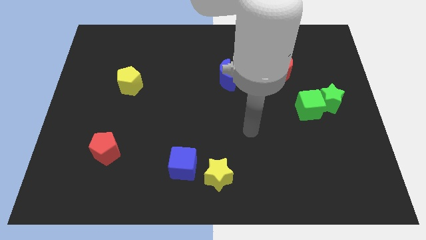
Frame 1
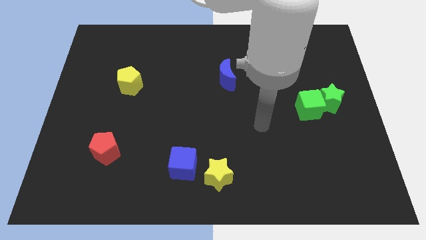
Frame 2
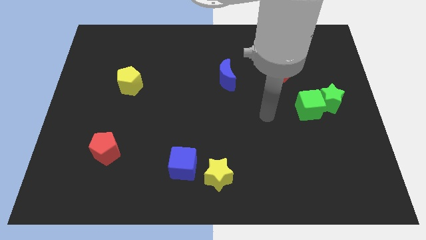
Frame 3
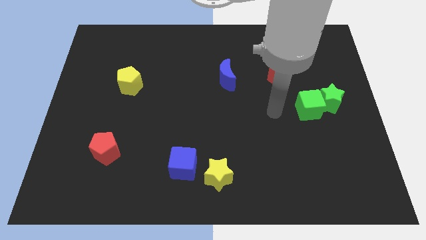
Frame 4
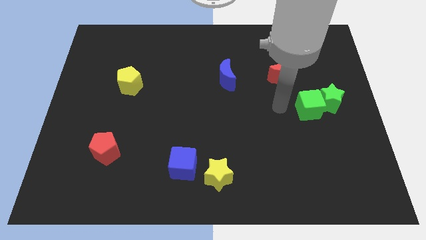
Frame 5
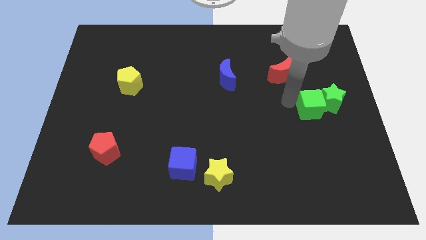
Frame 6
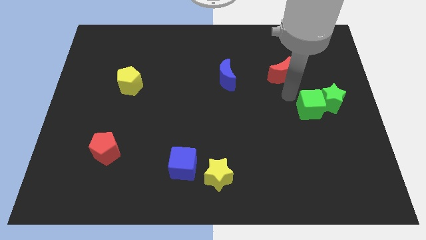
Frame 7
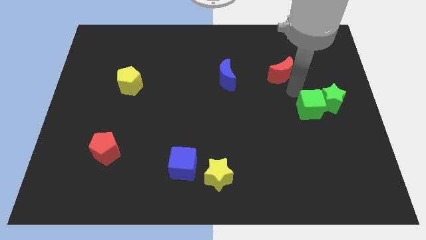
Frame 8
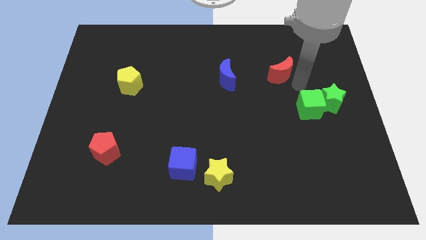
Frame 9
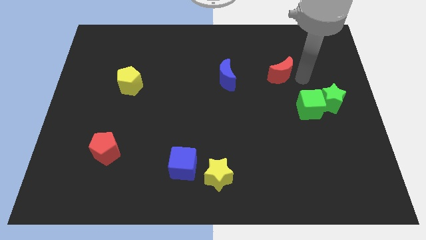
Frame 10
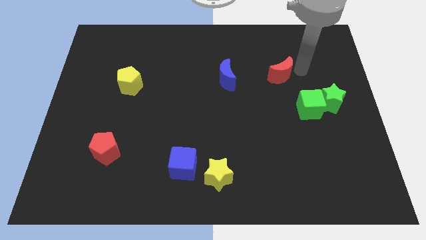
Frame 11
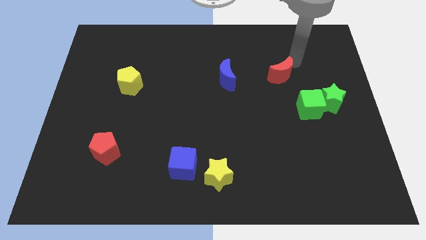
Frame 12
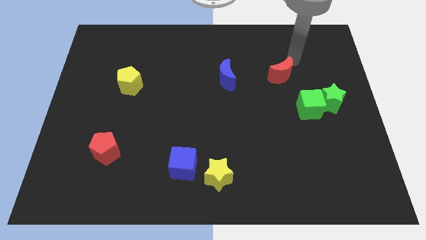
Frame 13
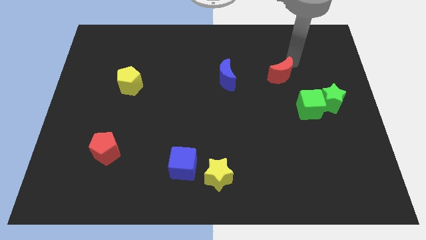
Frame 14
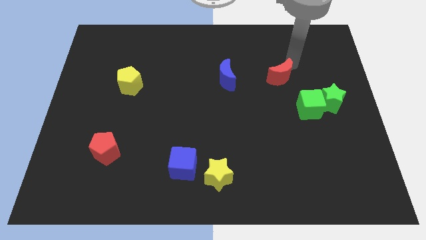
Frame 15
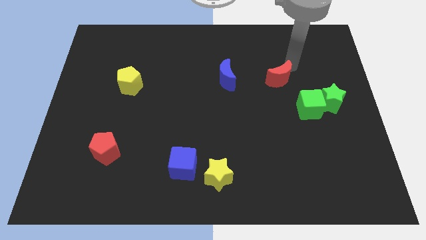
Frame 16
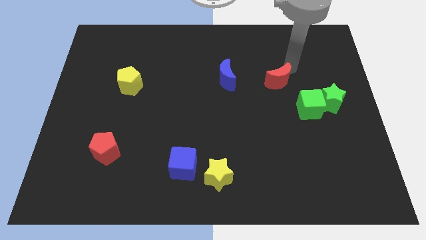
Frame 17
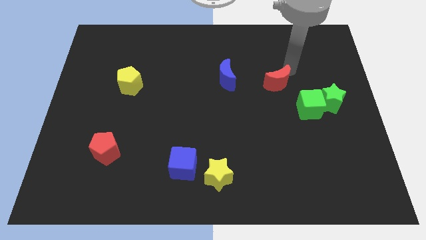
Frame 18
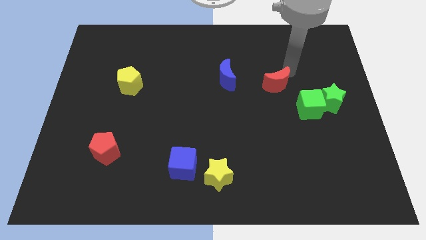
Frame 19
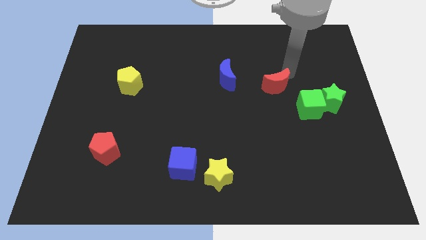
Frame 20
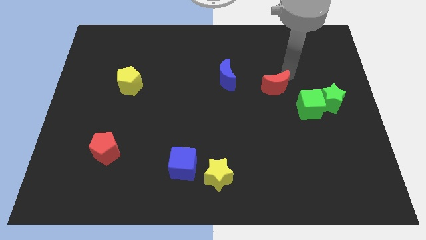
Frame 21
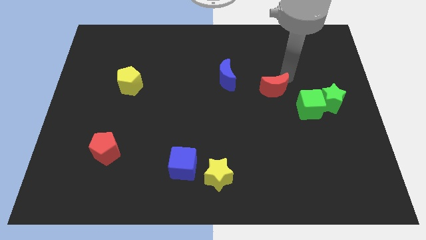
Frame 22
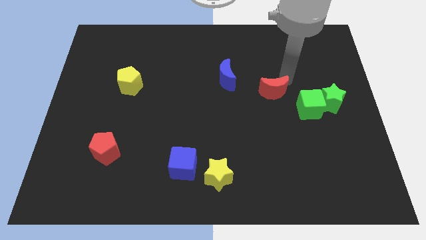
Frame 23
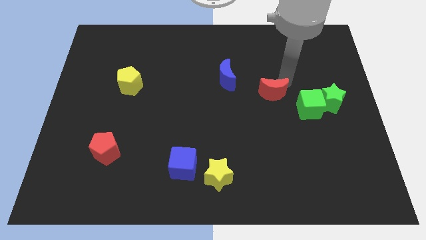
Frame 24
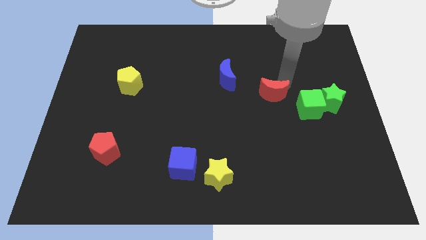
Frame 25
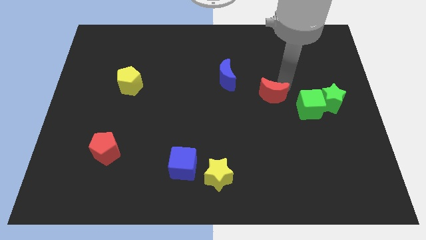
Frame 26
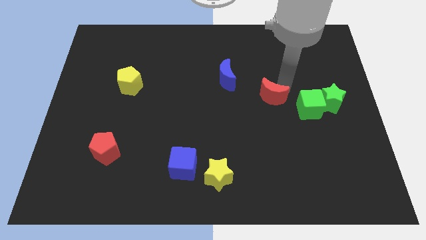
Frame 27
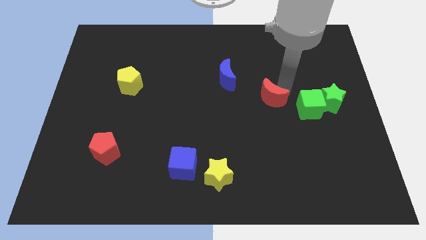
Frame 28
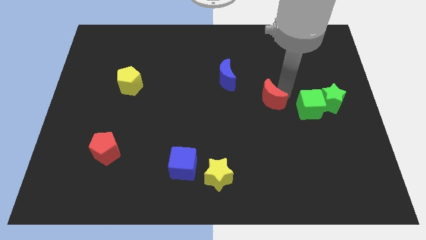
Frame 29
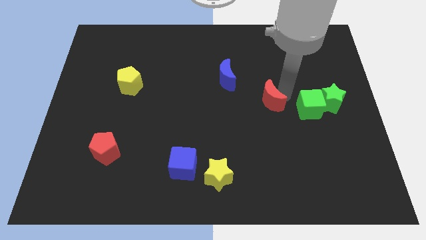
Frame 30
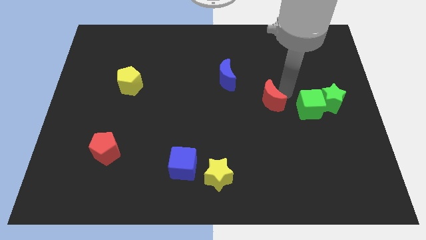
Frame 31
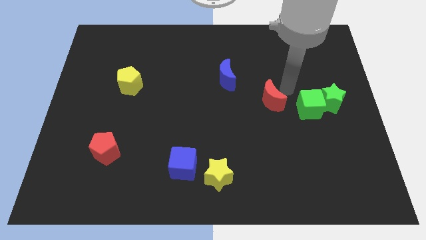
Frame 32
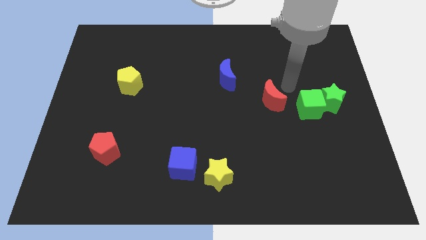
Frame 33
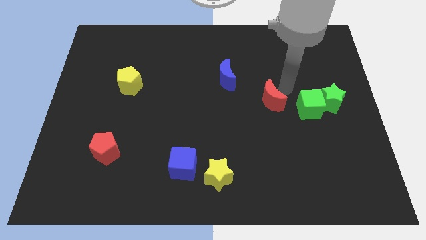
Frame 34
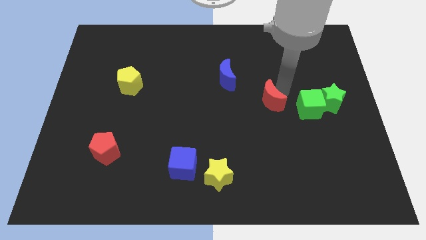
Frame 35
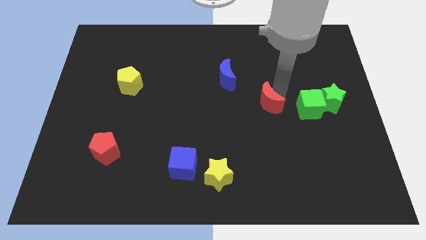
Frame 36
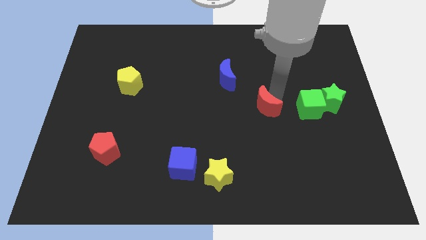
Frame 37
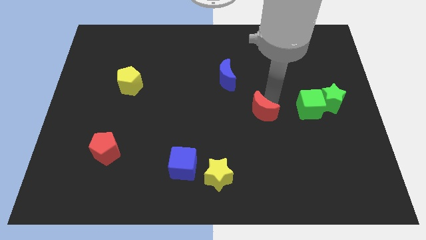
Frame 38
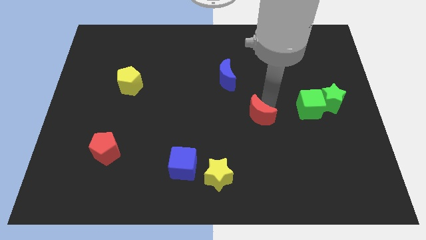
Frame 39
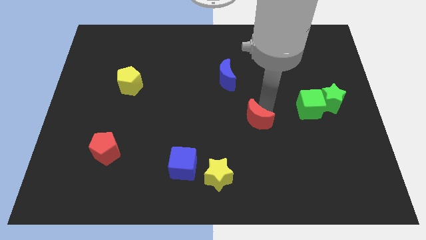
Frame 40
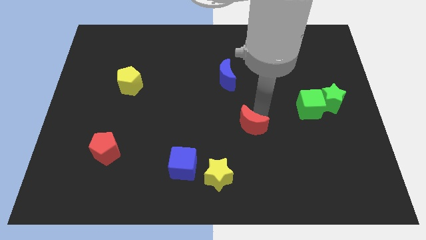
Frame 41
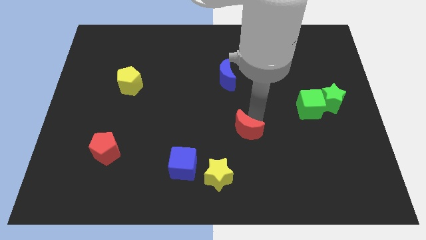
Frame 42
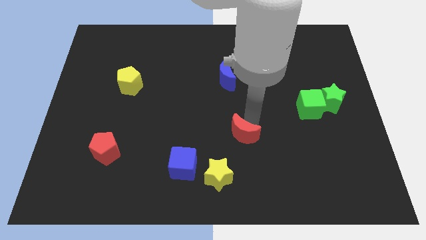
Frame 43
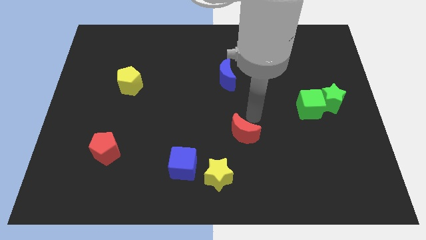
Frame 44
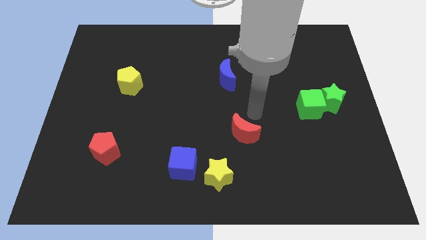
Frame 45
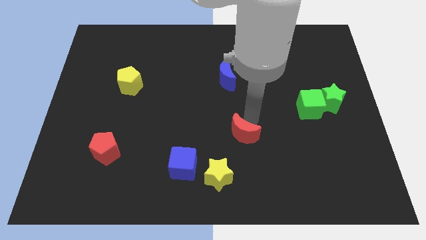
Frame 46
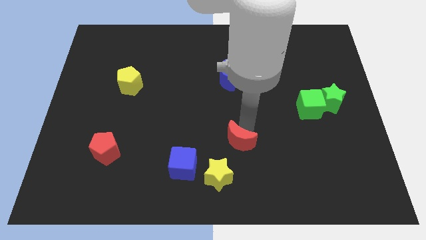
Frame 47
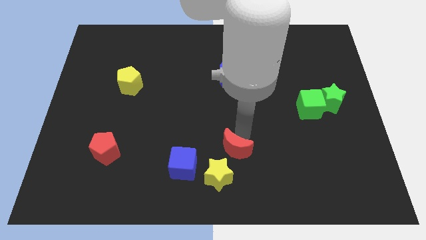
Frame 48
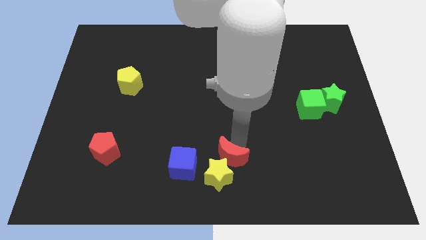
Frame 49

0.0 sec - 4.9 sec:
move the red moon next to the yellow star

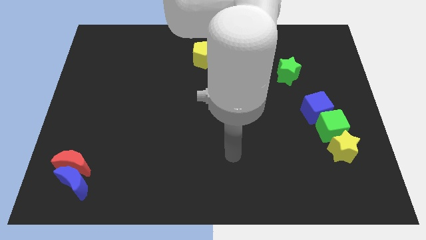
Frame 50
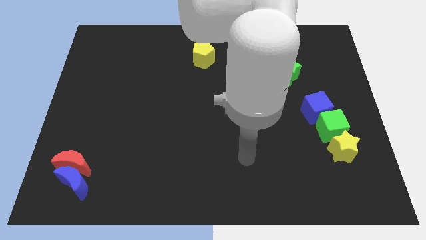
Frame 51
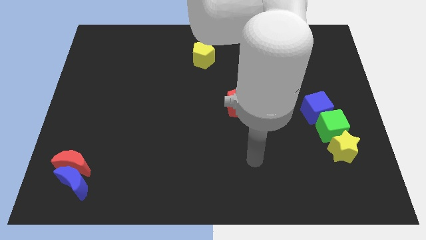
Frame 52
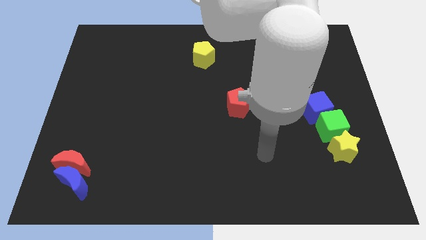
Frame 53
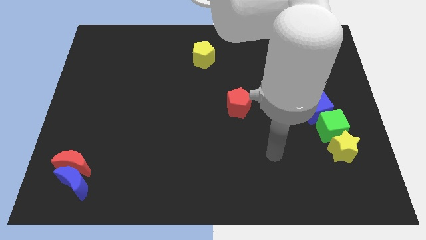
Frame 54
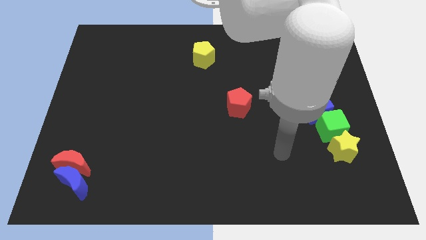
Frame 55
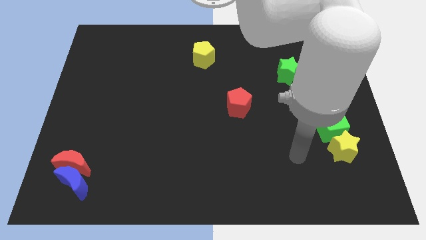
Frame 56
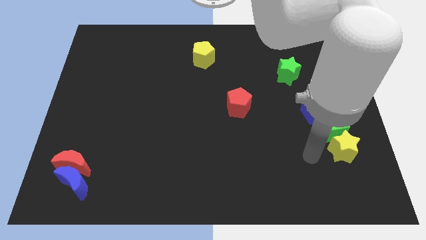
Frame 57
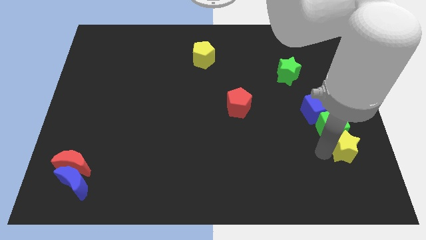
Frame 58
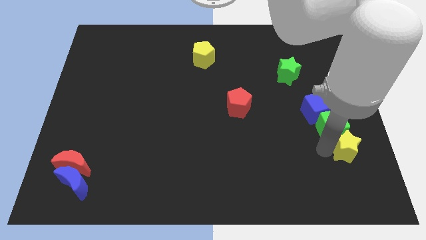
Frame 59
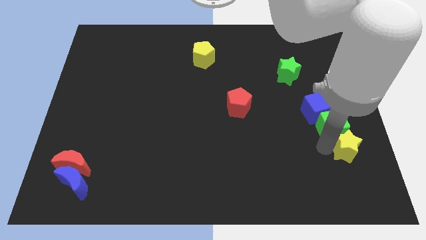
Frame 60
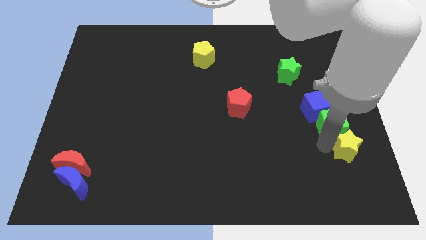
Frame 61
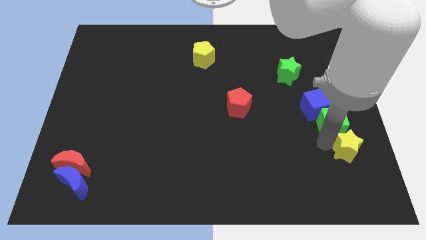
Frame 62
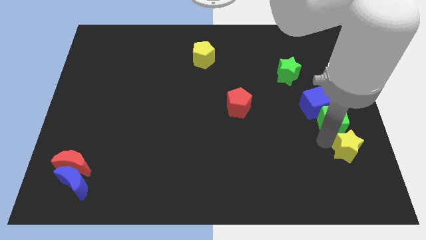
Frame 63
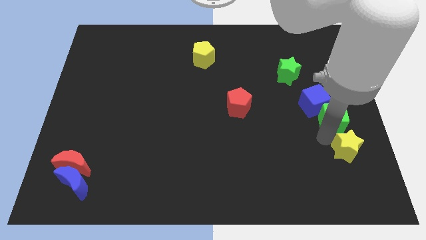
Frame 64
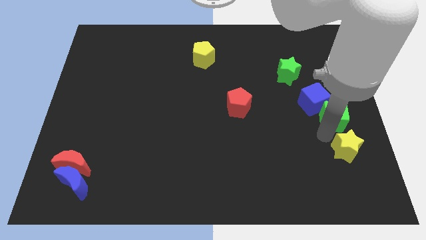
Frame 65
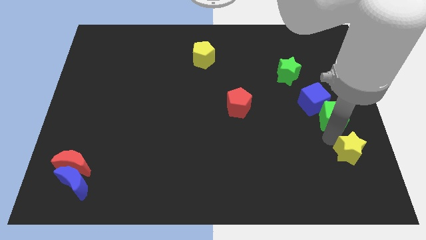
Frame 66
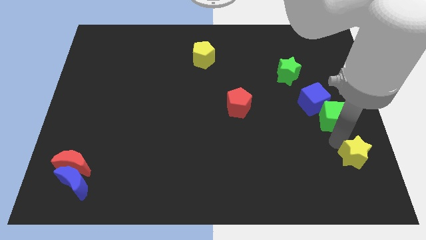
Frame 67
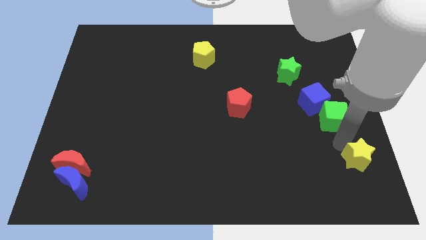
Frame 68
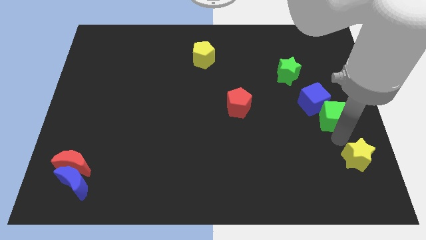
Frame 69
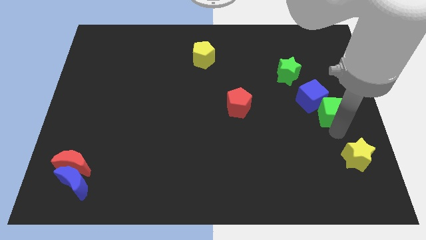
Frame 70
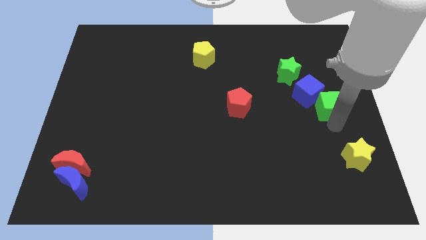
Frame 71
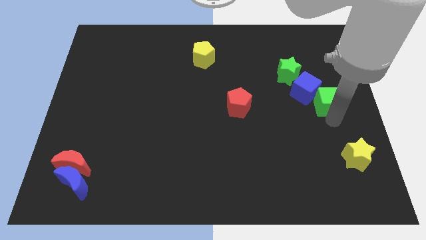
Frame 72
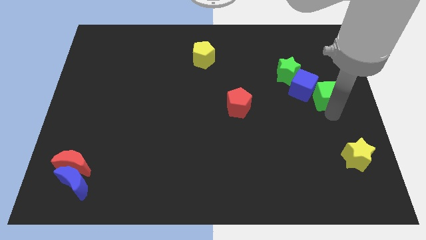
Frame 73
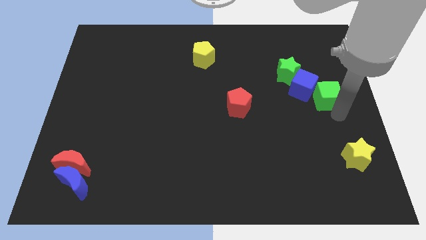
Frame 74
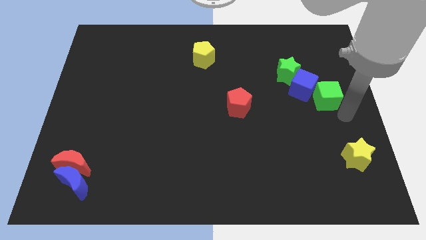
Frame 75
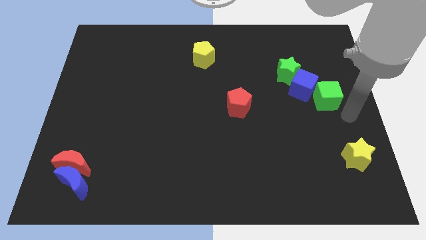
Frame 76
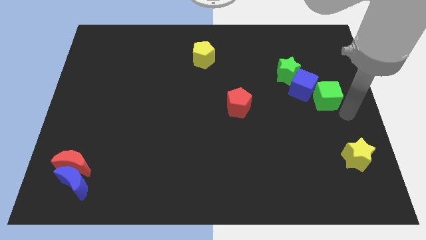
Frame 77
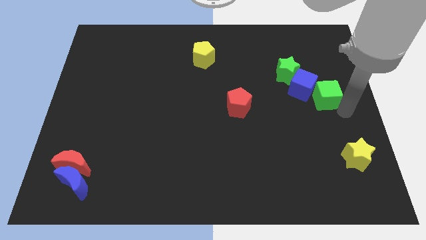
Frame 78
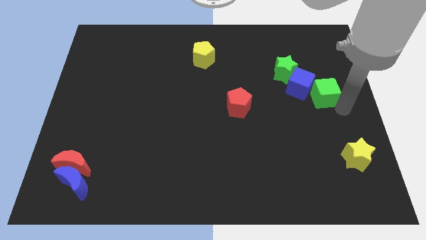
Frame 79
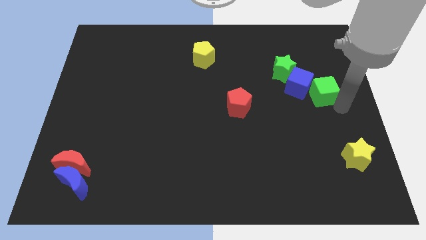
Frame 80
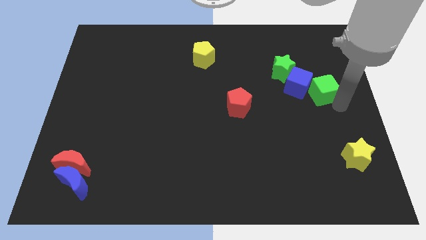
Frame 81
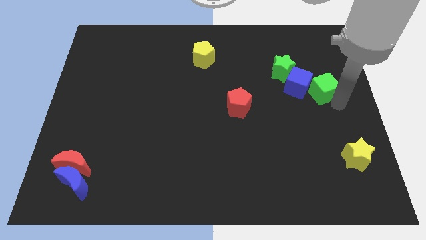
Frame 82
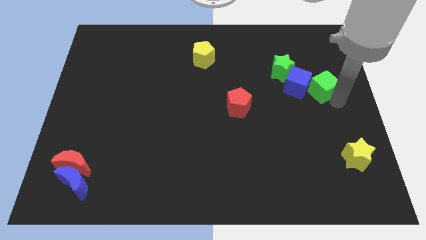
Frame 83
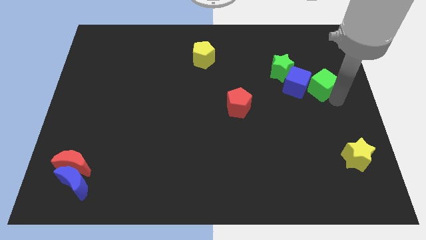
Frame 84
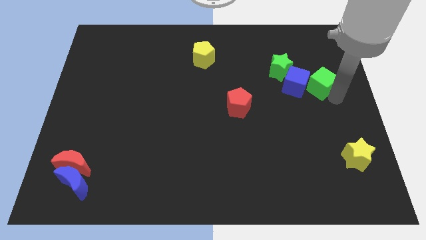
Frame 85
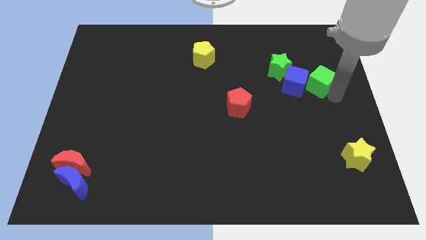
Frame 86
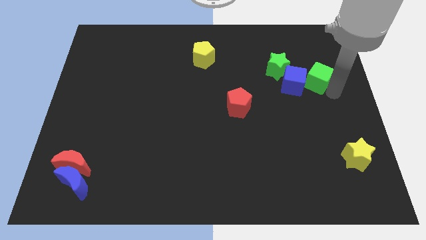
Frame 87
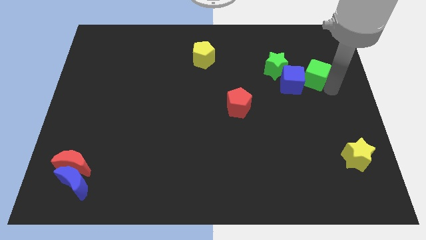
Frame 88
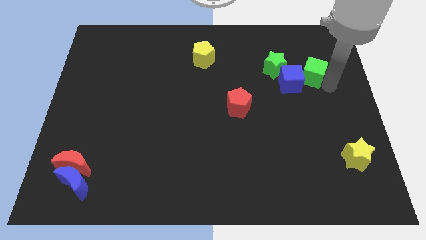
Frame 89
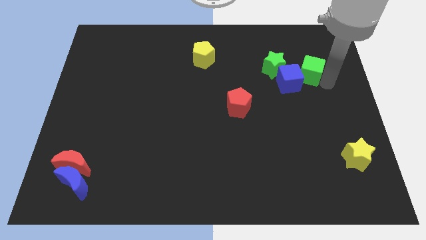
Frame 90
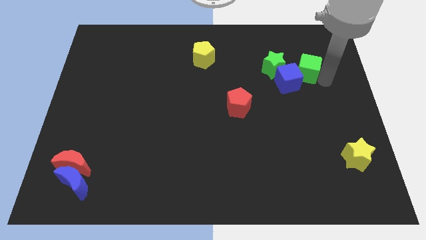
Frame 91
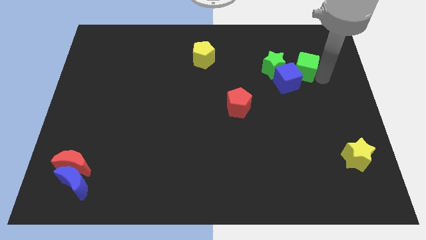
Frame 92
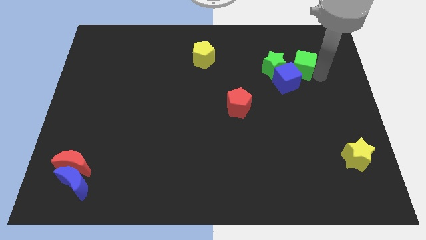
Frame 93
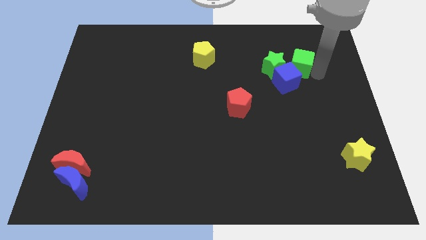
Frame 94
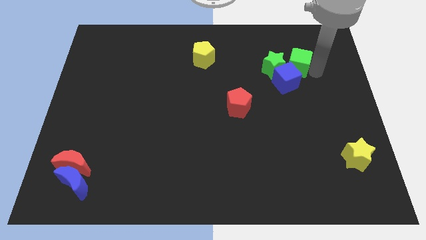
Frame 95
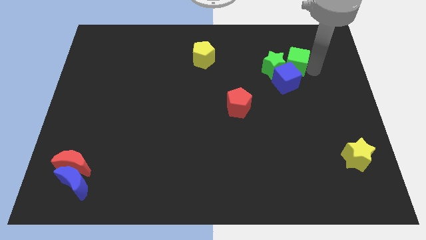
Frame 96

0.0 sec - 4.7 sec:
move the green cube to the green star
